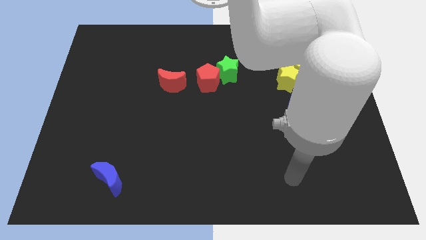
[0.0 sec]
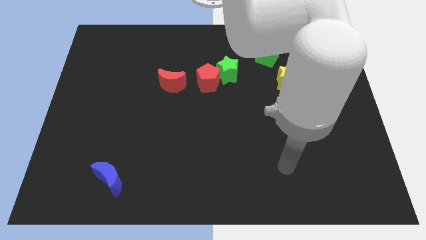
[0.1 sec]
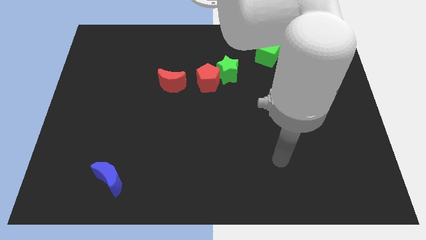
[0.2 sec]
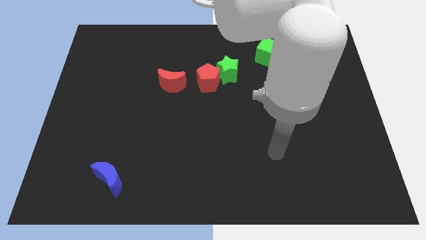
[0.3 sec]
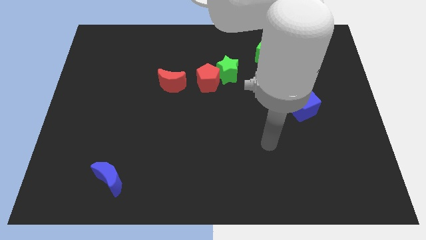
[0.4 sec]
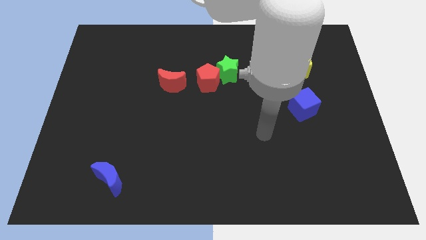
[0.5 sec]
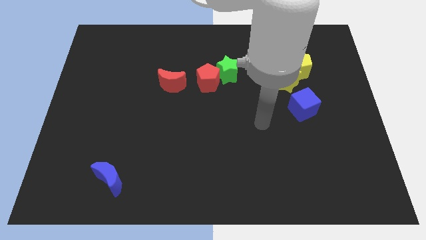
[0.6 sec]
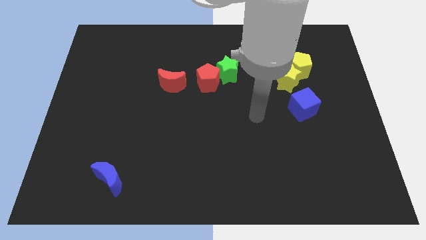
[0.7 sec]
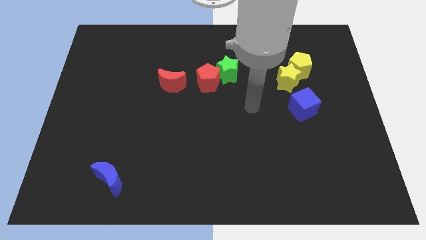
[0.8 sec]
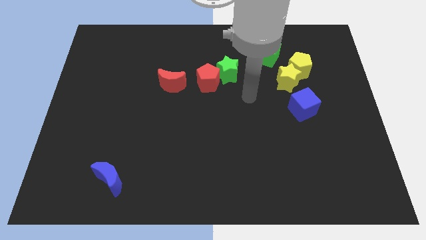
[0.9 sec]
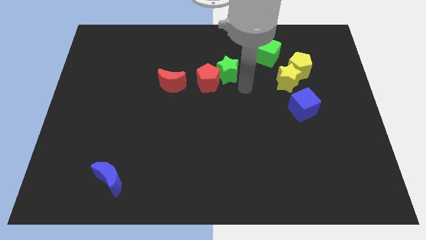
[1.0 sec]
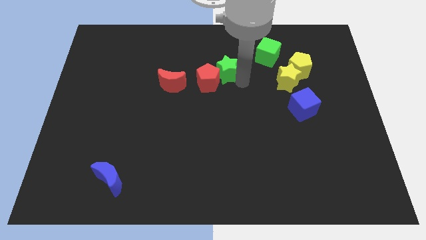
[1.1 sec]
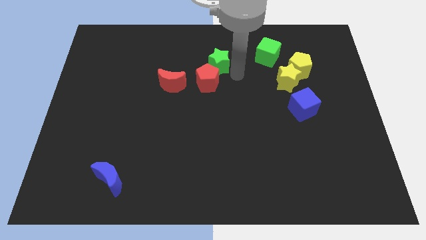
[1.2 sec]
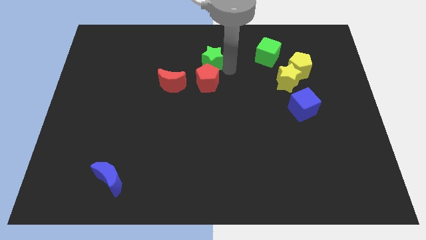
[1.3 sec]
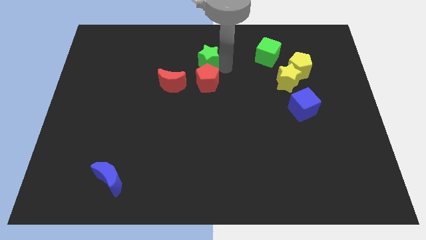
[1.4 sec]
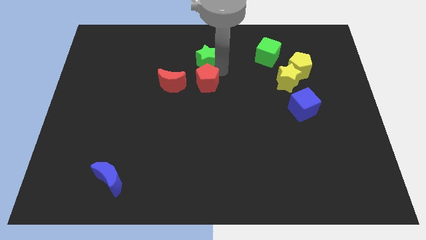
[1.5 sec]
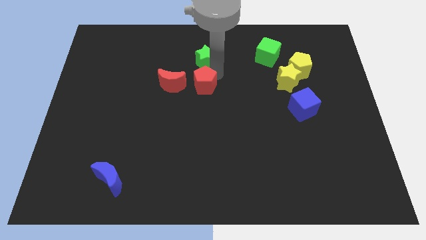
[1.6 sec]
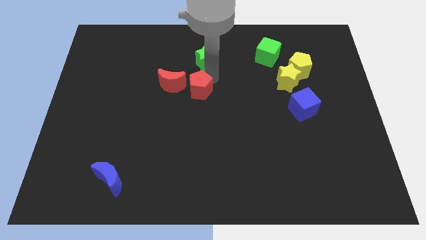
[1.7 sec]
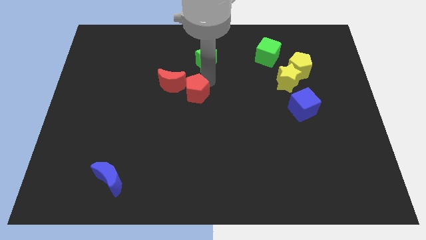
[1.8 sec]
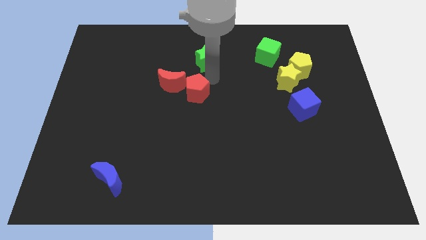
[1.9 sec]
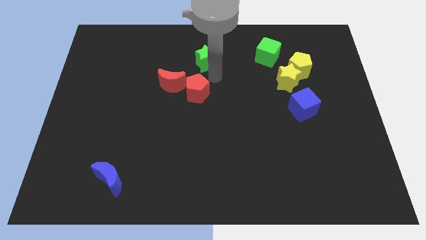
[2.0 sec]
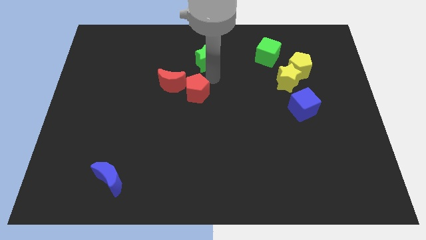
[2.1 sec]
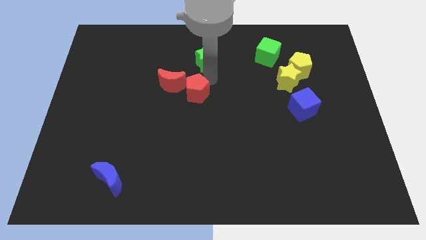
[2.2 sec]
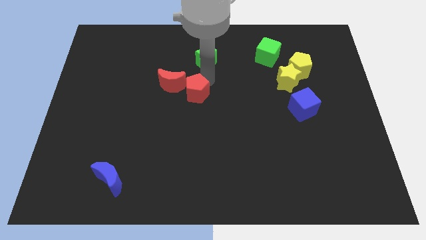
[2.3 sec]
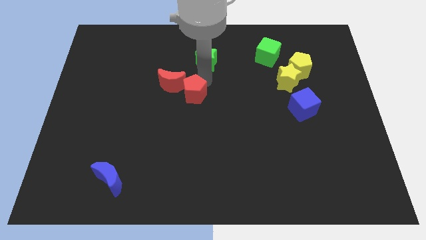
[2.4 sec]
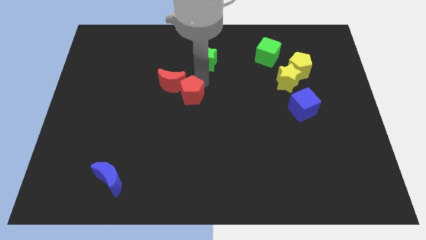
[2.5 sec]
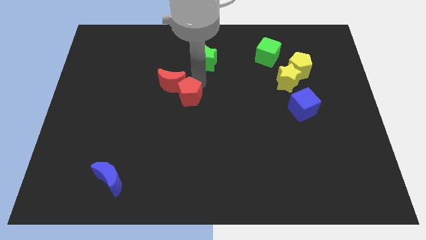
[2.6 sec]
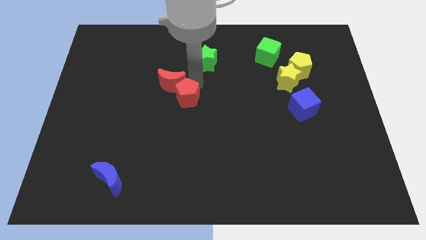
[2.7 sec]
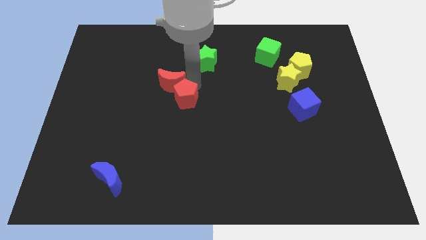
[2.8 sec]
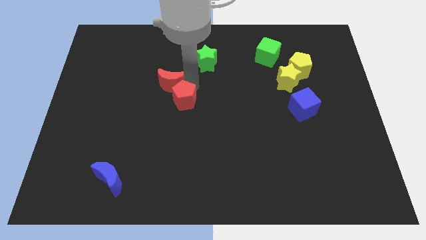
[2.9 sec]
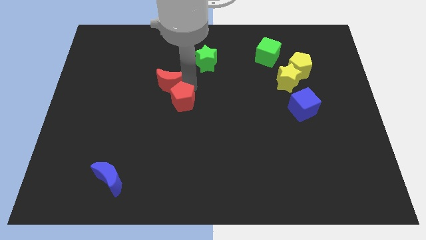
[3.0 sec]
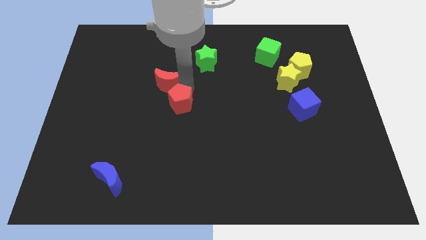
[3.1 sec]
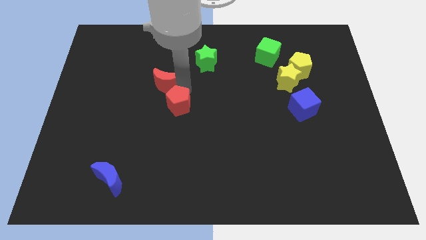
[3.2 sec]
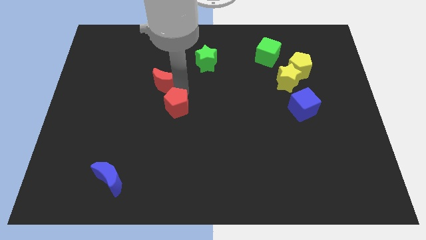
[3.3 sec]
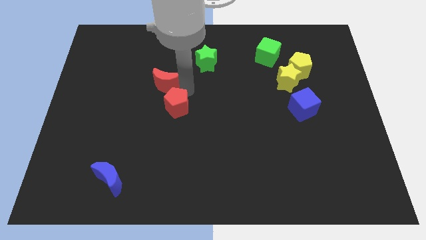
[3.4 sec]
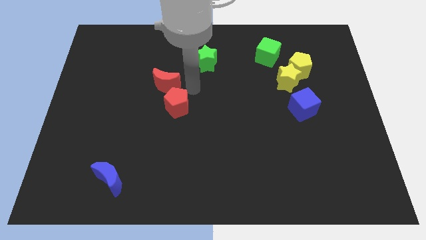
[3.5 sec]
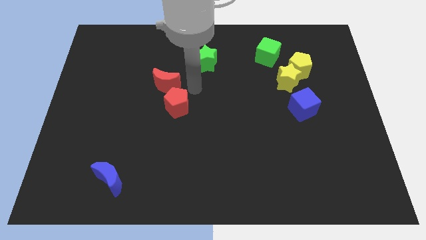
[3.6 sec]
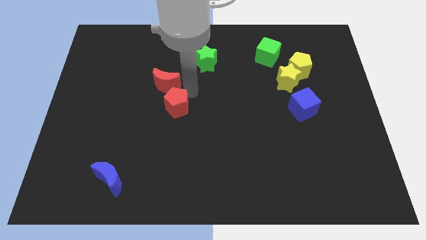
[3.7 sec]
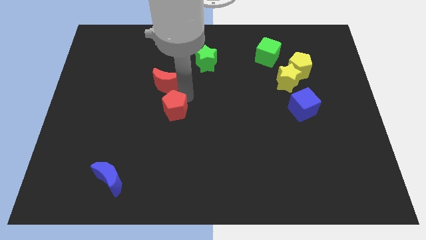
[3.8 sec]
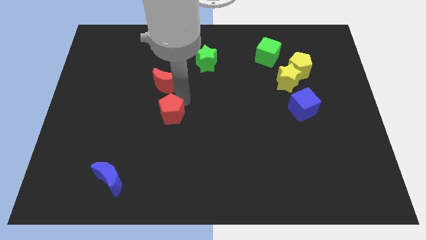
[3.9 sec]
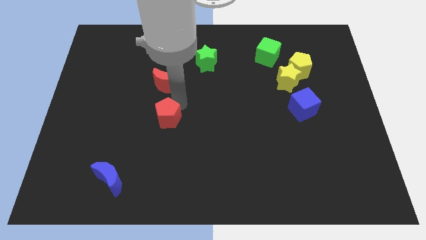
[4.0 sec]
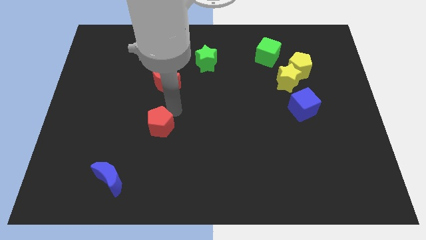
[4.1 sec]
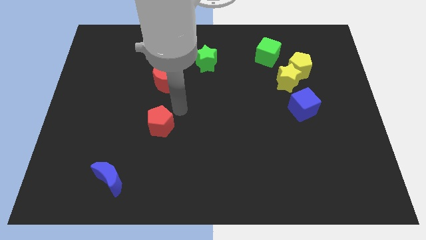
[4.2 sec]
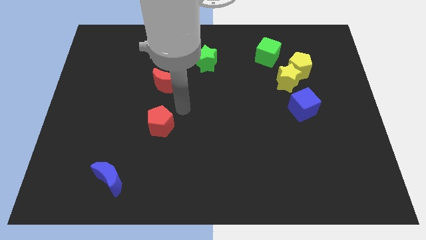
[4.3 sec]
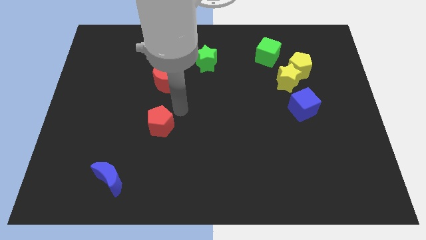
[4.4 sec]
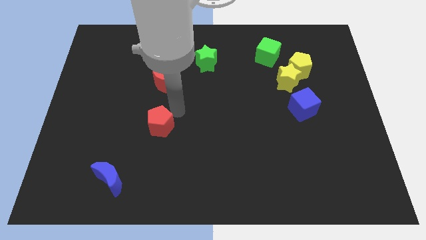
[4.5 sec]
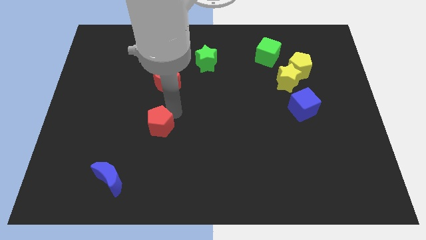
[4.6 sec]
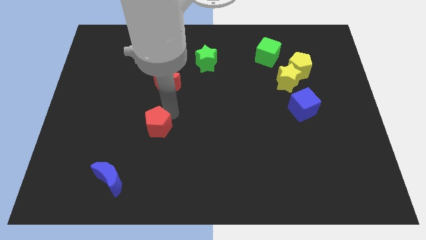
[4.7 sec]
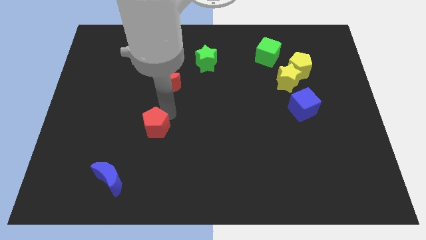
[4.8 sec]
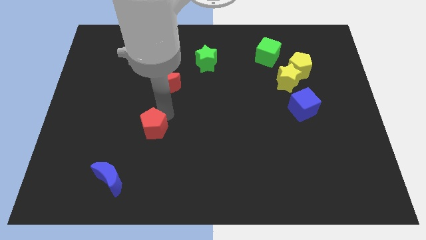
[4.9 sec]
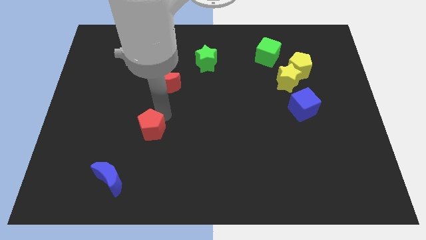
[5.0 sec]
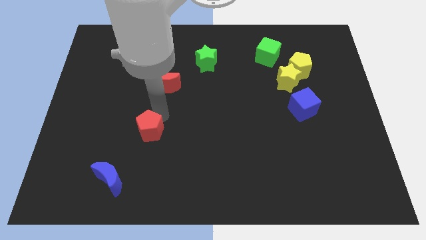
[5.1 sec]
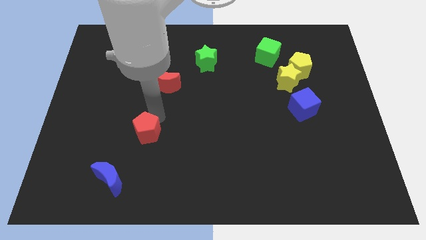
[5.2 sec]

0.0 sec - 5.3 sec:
push the red pentagon down and to the left diagonally

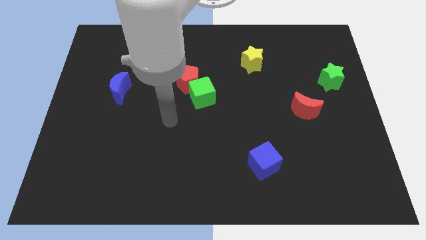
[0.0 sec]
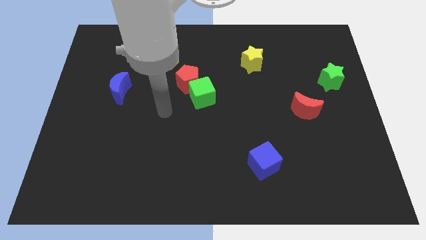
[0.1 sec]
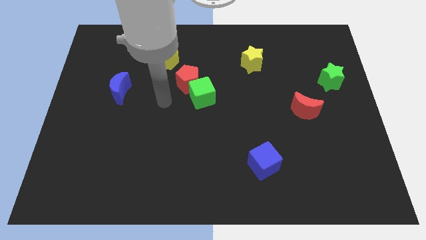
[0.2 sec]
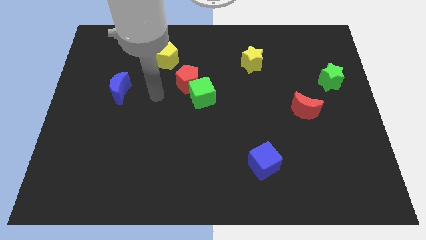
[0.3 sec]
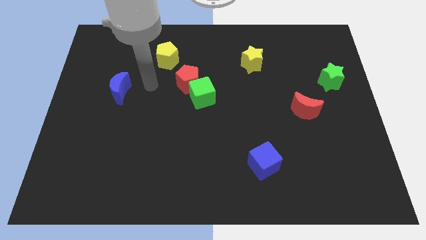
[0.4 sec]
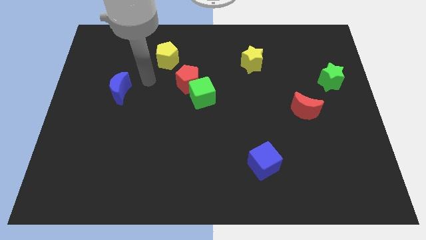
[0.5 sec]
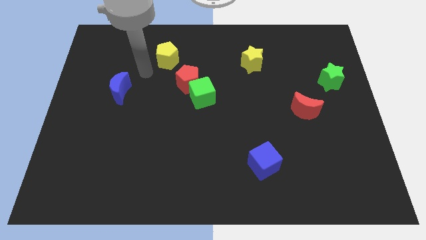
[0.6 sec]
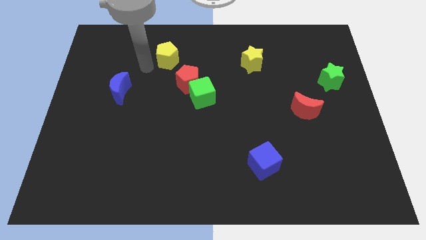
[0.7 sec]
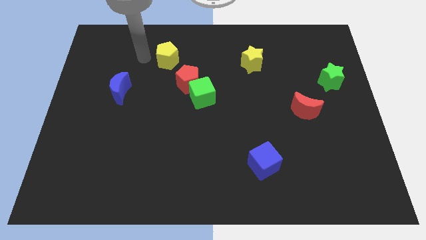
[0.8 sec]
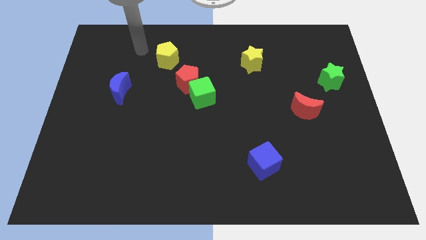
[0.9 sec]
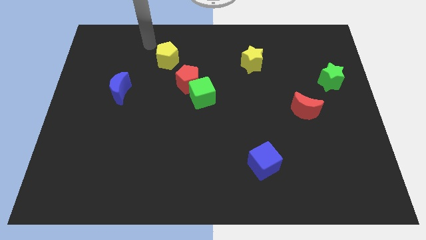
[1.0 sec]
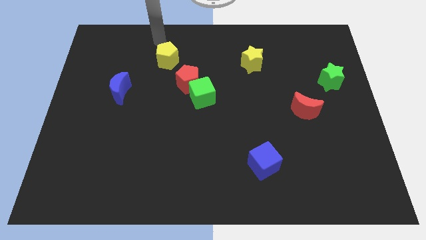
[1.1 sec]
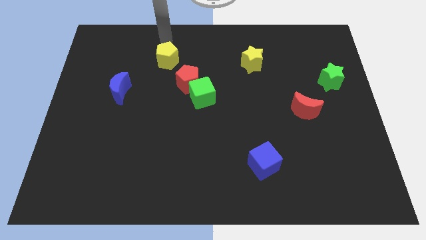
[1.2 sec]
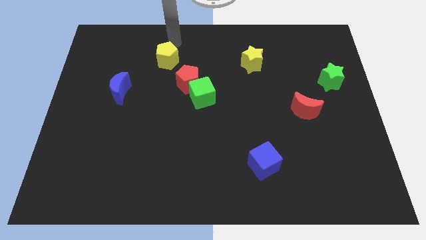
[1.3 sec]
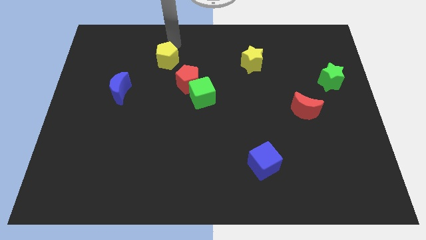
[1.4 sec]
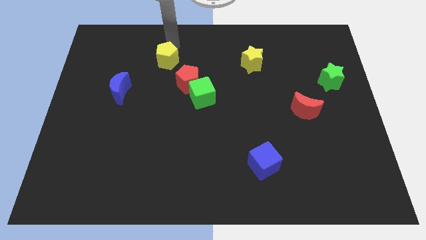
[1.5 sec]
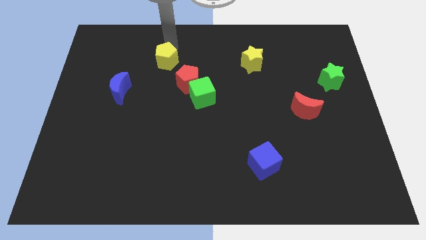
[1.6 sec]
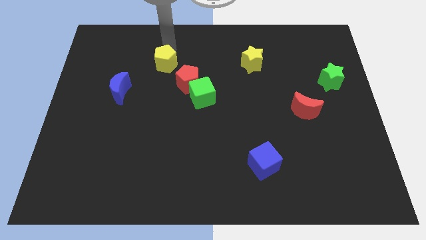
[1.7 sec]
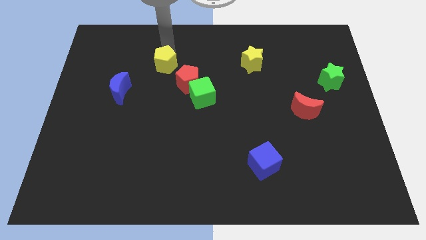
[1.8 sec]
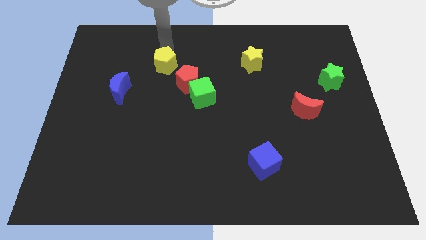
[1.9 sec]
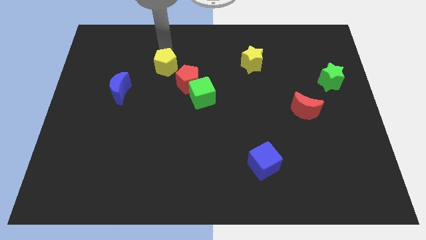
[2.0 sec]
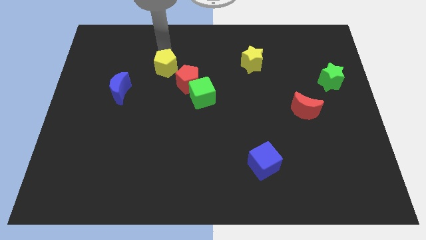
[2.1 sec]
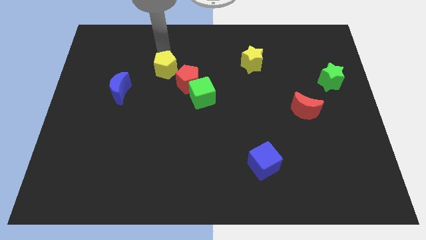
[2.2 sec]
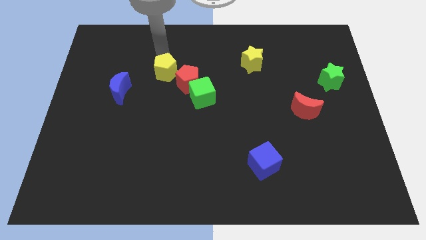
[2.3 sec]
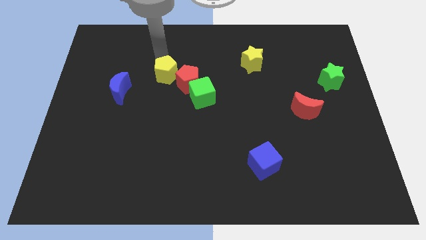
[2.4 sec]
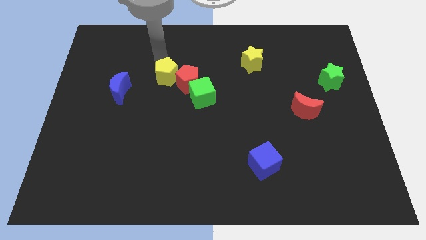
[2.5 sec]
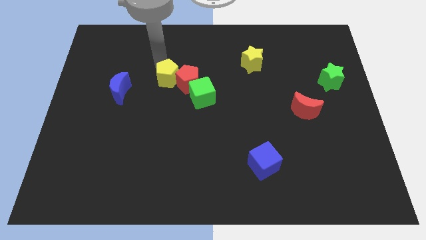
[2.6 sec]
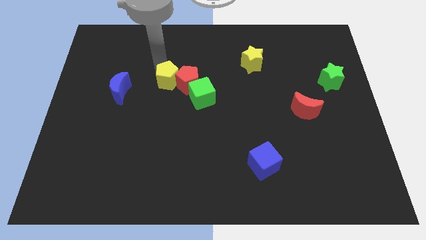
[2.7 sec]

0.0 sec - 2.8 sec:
slightly move the yellow pentagon down
